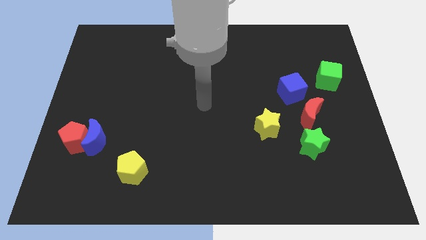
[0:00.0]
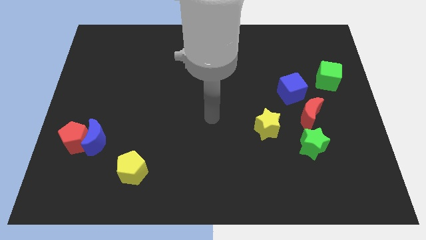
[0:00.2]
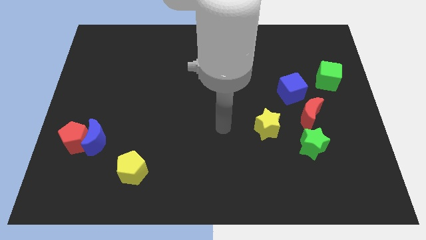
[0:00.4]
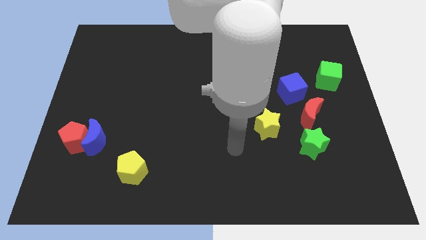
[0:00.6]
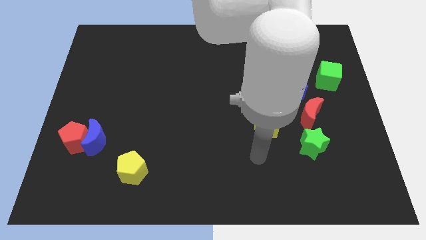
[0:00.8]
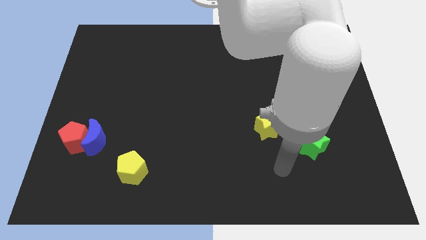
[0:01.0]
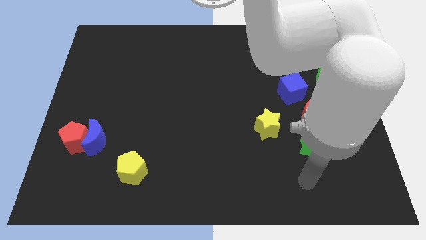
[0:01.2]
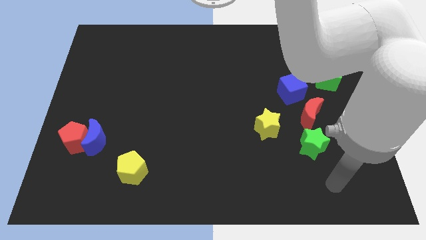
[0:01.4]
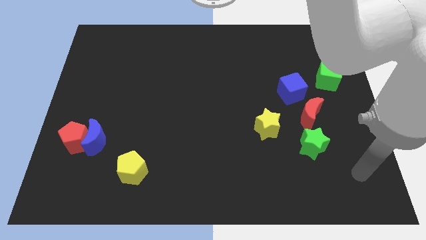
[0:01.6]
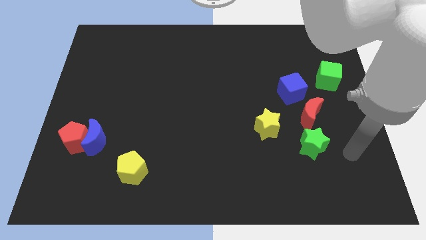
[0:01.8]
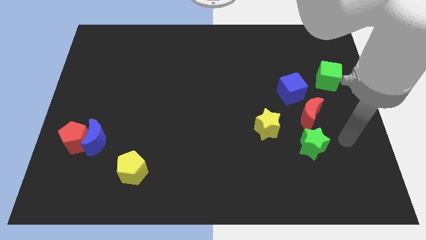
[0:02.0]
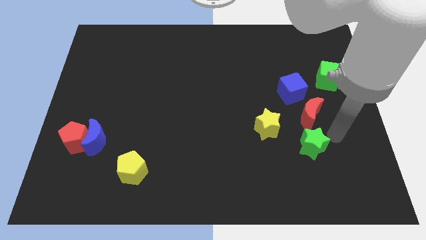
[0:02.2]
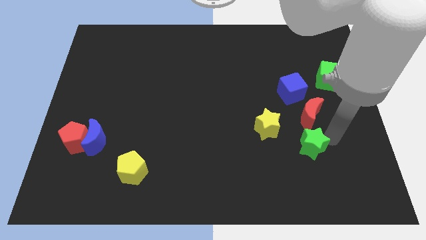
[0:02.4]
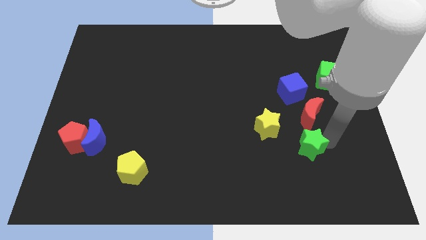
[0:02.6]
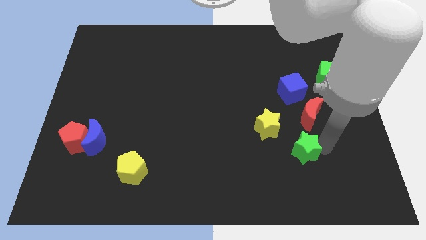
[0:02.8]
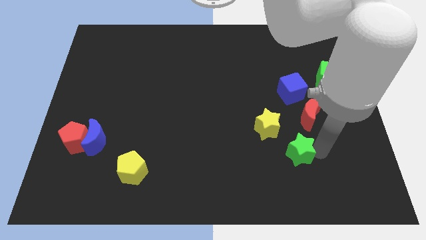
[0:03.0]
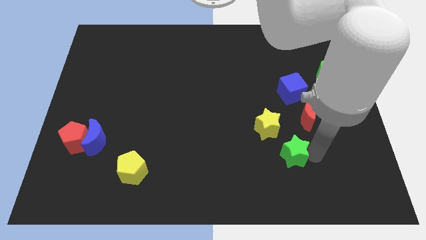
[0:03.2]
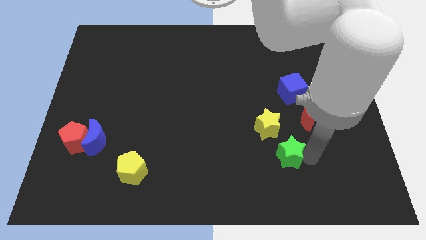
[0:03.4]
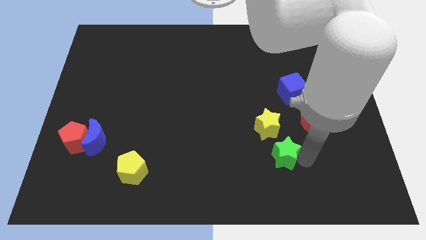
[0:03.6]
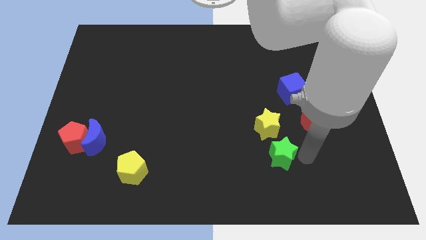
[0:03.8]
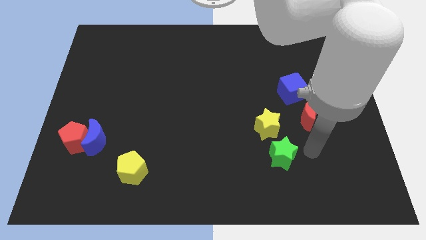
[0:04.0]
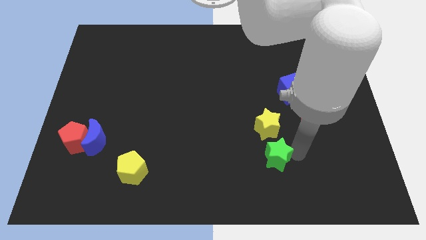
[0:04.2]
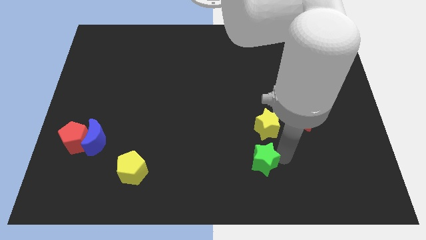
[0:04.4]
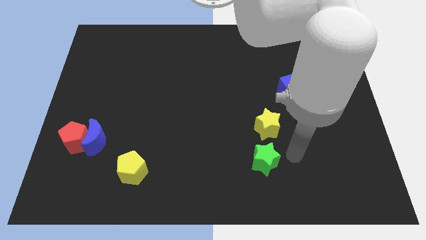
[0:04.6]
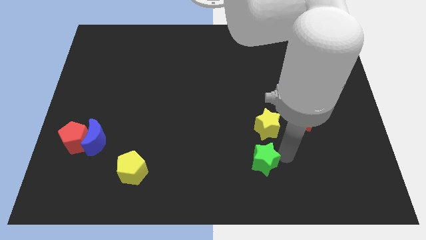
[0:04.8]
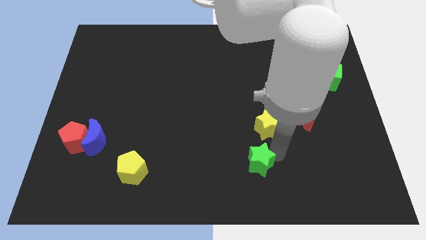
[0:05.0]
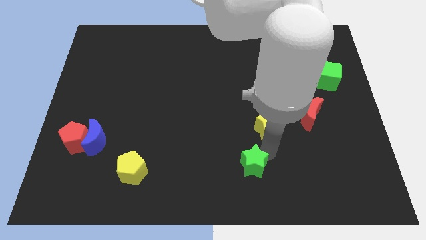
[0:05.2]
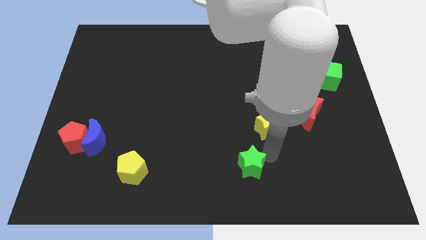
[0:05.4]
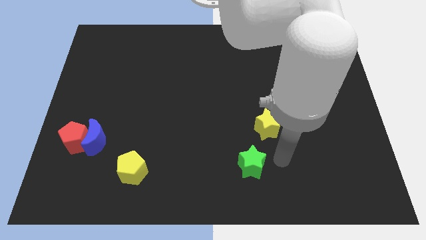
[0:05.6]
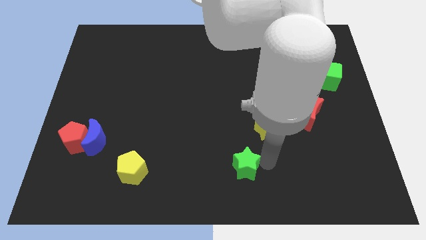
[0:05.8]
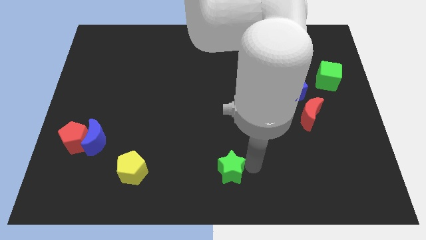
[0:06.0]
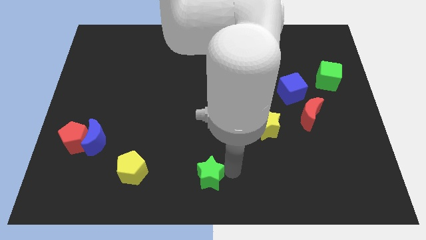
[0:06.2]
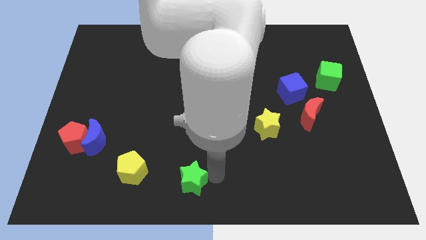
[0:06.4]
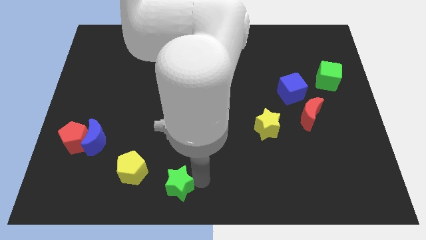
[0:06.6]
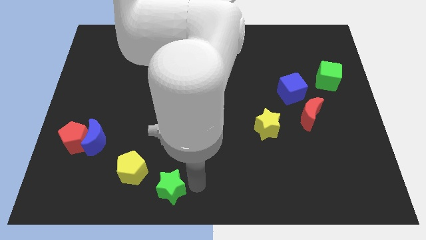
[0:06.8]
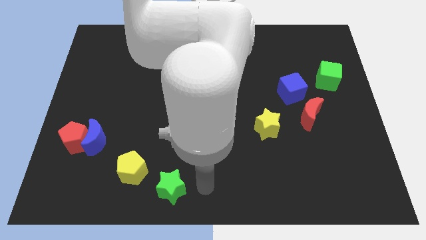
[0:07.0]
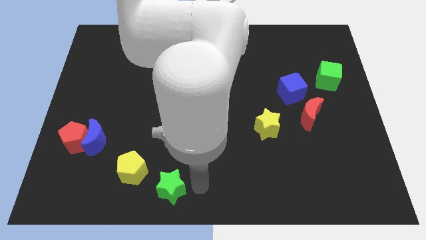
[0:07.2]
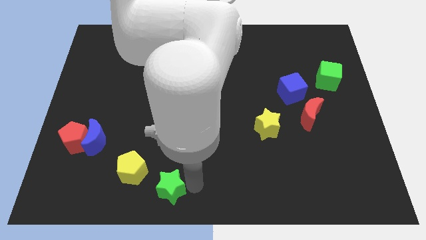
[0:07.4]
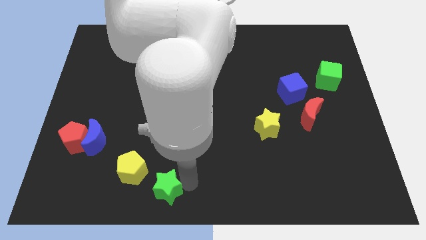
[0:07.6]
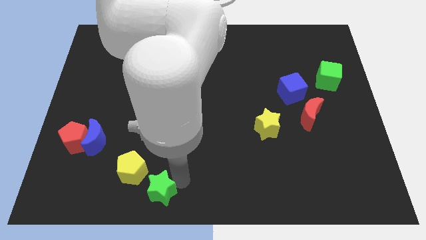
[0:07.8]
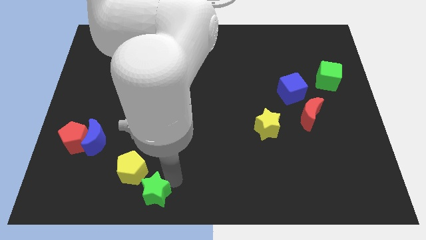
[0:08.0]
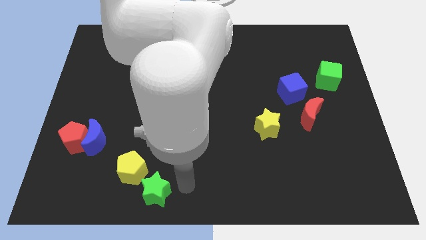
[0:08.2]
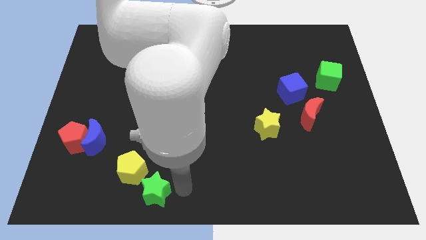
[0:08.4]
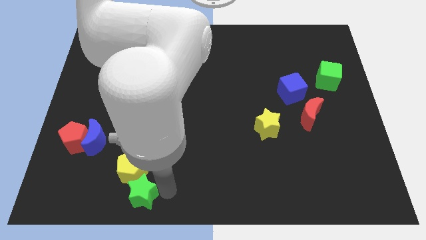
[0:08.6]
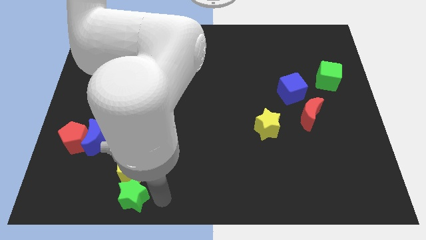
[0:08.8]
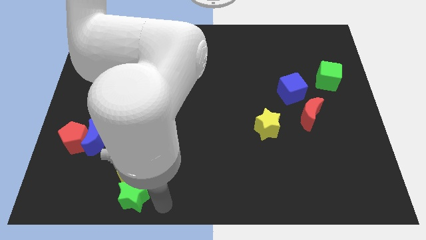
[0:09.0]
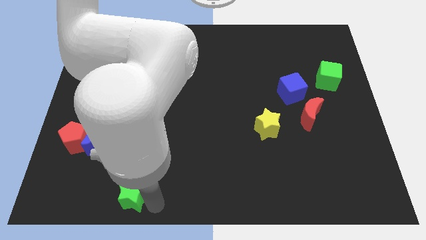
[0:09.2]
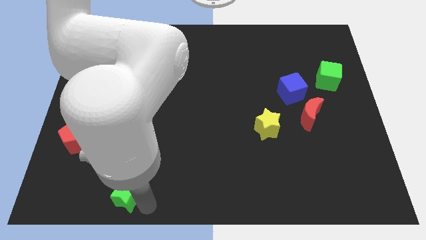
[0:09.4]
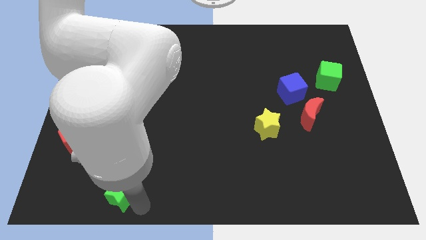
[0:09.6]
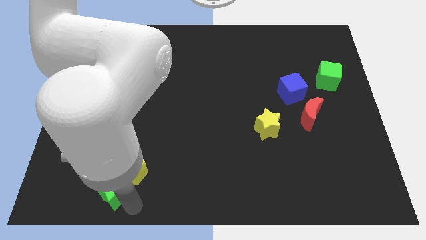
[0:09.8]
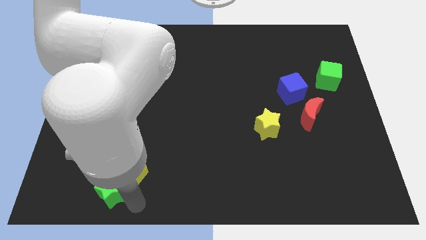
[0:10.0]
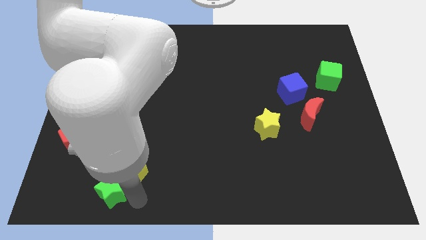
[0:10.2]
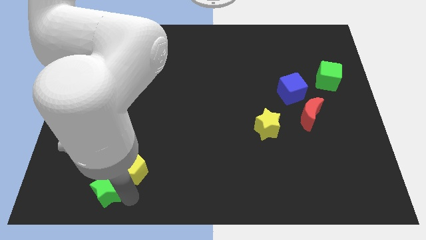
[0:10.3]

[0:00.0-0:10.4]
push the green star to the bottom side of the blue moon
